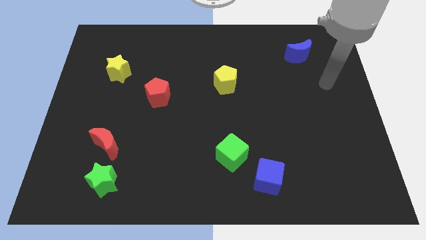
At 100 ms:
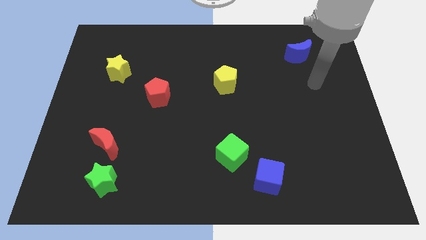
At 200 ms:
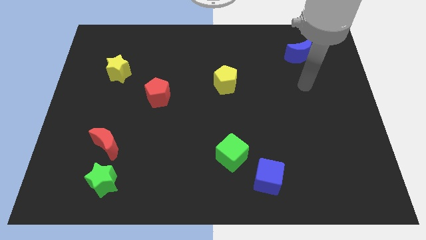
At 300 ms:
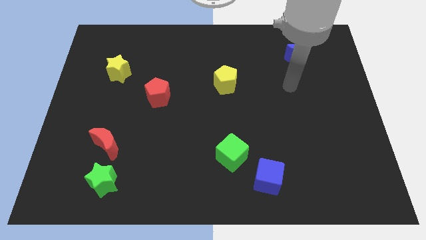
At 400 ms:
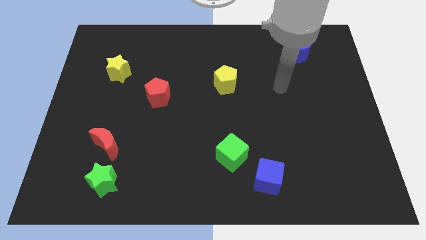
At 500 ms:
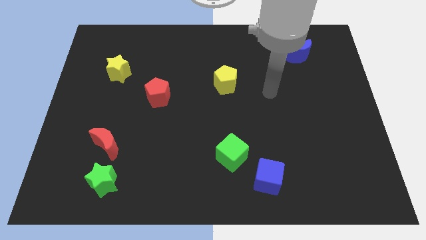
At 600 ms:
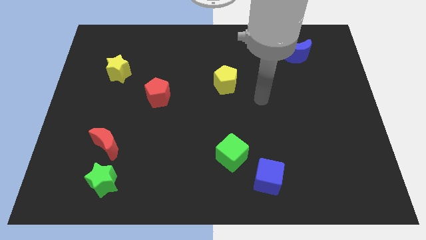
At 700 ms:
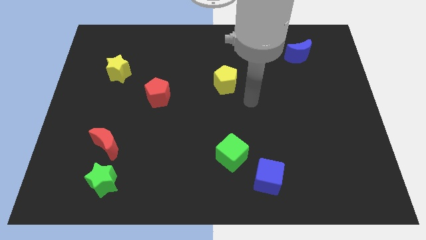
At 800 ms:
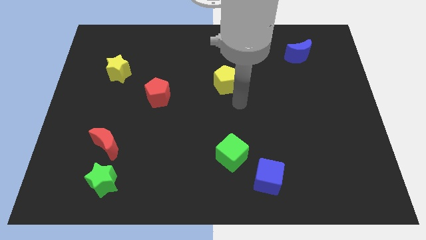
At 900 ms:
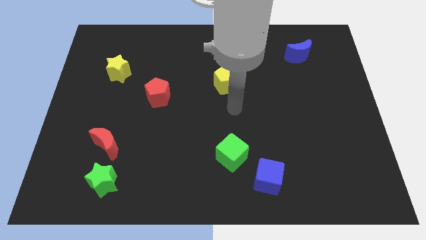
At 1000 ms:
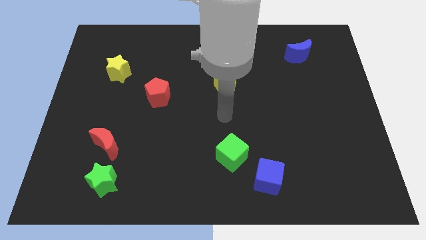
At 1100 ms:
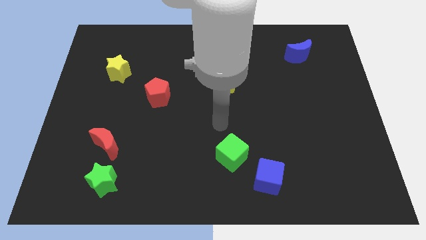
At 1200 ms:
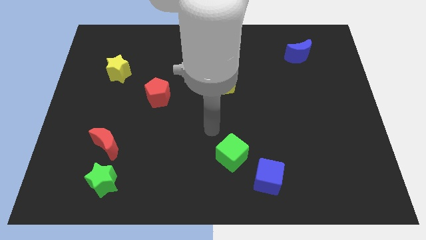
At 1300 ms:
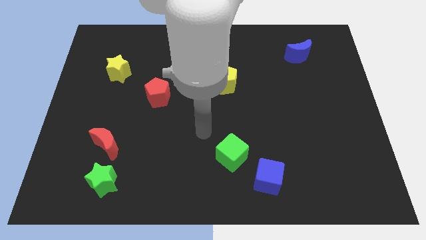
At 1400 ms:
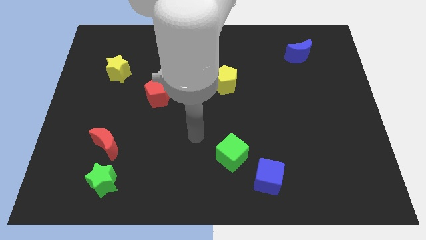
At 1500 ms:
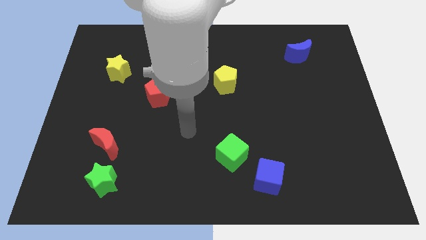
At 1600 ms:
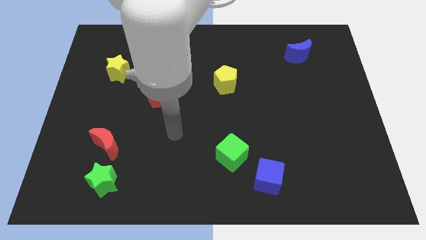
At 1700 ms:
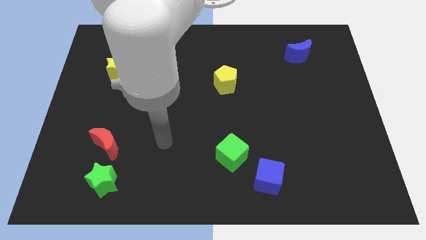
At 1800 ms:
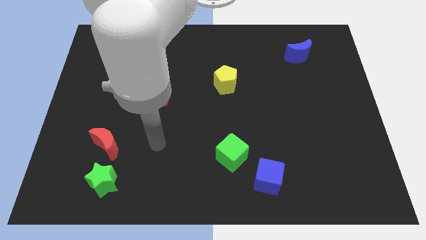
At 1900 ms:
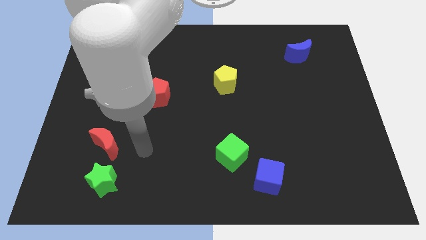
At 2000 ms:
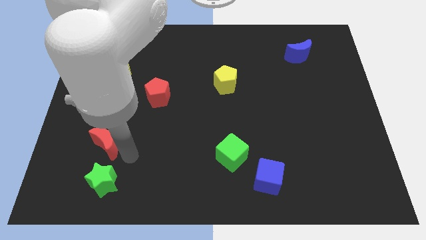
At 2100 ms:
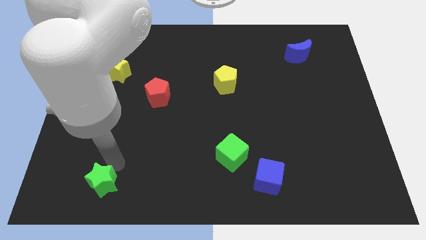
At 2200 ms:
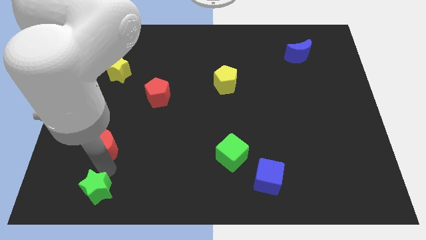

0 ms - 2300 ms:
pull the red moon apart from the green star

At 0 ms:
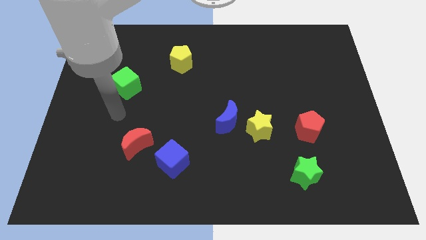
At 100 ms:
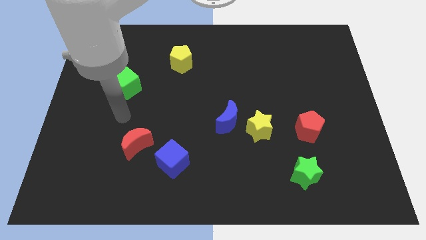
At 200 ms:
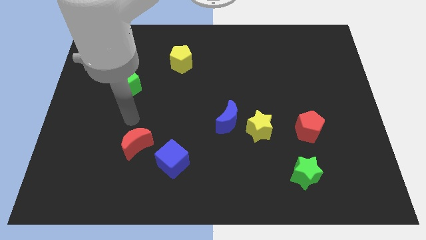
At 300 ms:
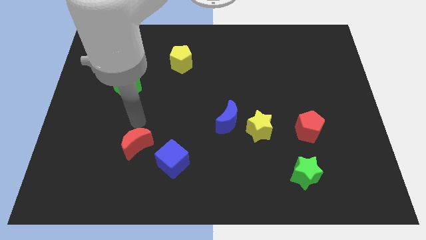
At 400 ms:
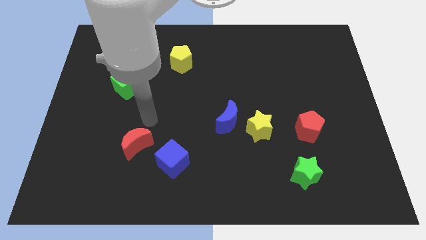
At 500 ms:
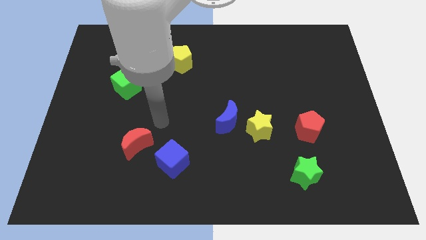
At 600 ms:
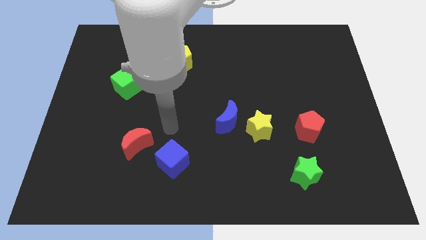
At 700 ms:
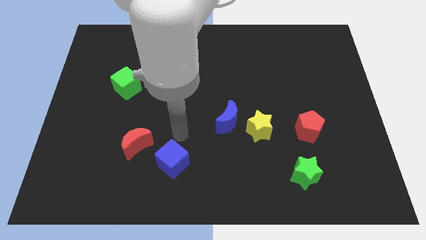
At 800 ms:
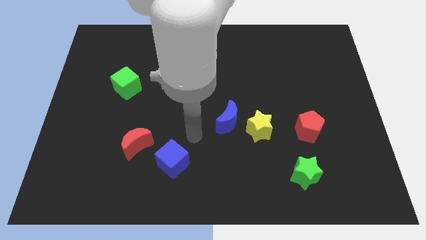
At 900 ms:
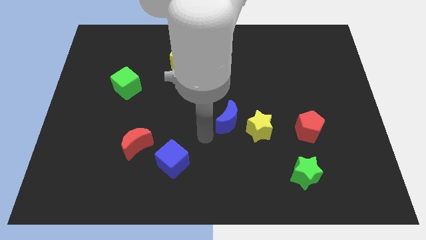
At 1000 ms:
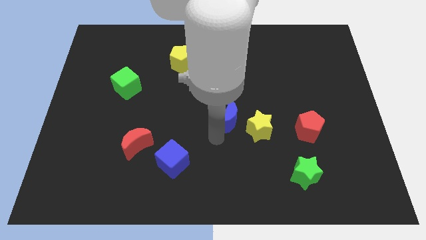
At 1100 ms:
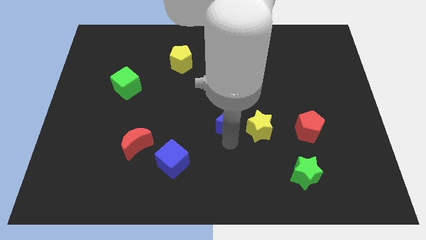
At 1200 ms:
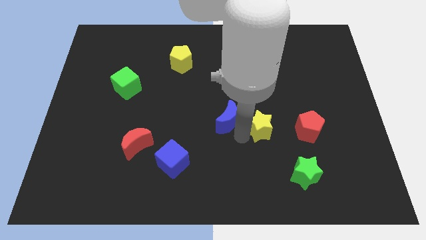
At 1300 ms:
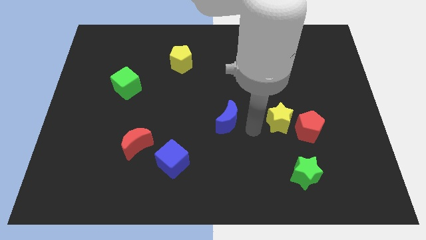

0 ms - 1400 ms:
pull the blue moon apart from the yellow star

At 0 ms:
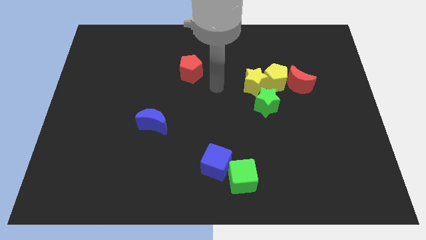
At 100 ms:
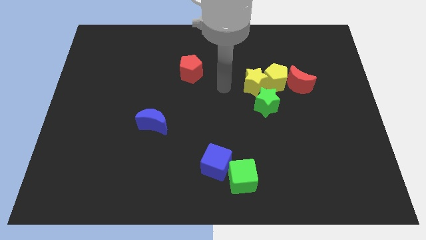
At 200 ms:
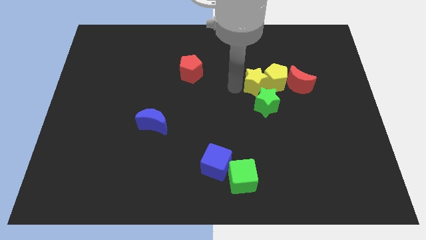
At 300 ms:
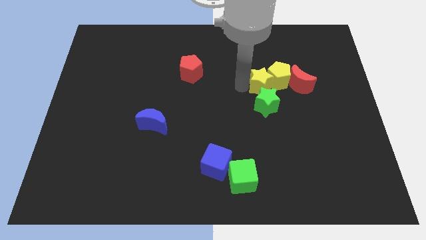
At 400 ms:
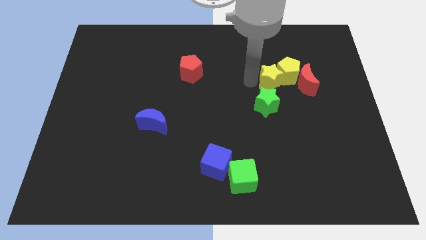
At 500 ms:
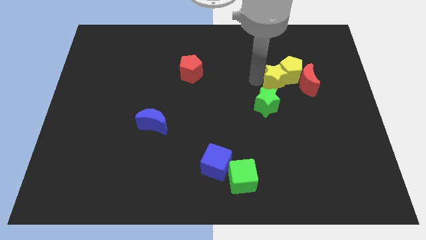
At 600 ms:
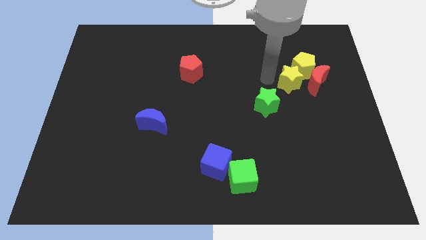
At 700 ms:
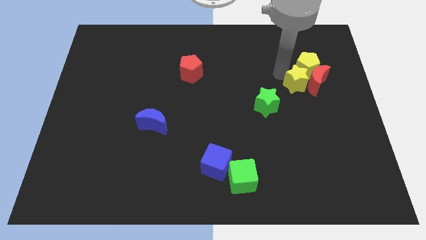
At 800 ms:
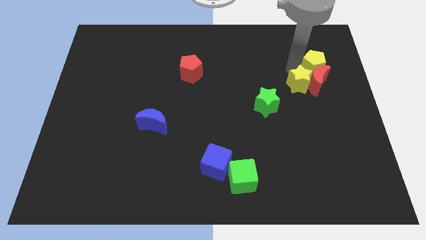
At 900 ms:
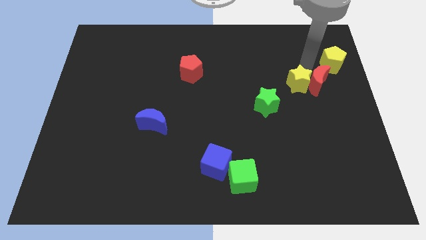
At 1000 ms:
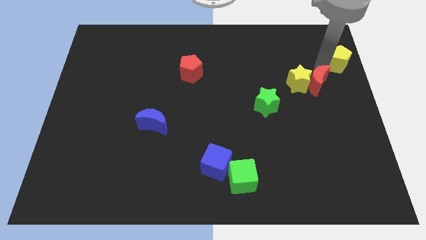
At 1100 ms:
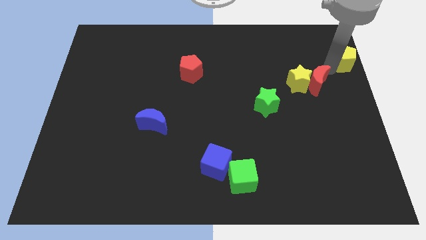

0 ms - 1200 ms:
separate the red moon from the yellow pentagon

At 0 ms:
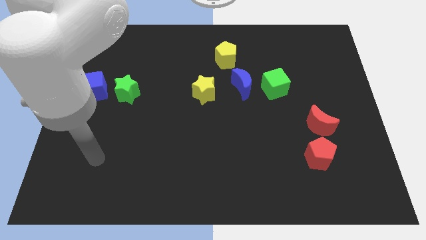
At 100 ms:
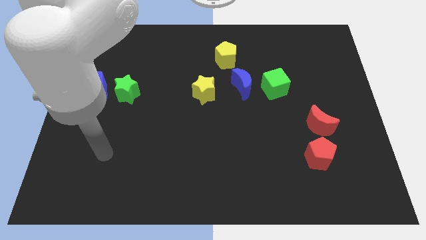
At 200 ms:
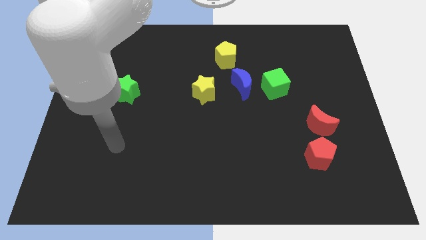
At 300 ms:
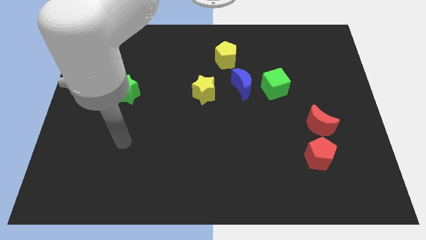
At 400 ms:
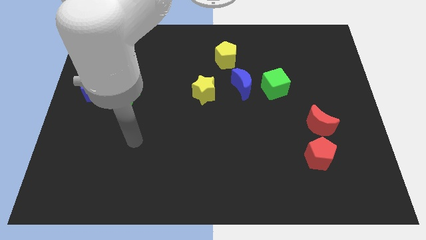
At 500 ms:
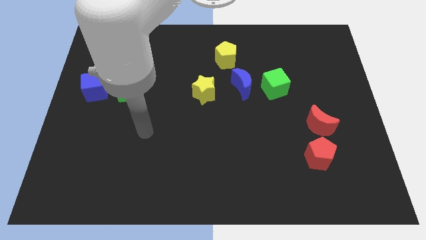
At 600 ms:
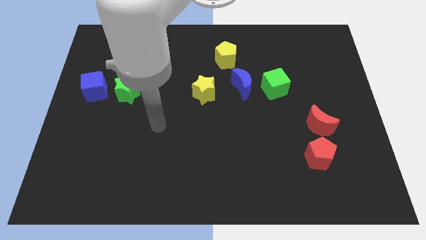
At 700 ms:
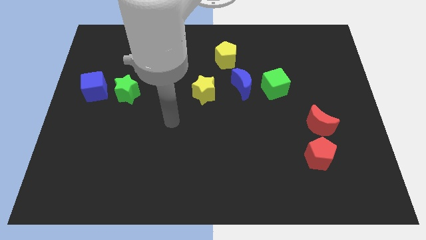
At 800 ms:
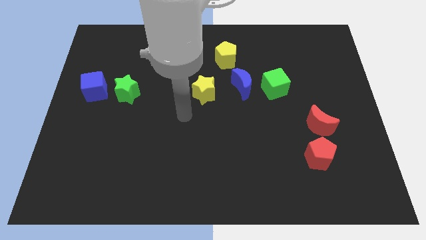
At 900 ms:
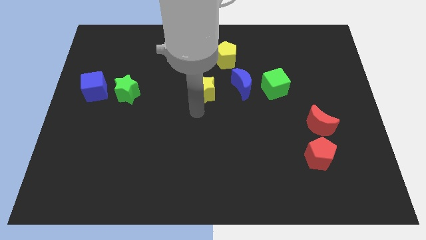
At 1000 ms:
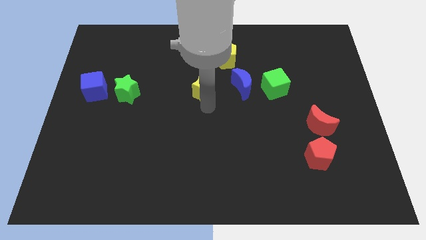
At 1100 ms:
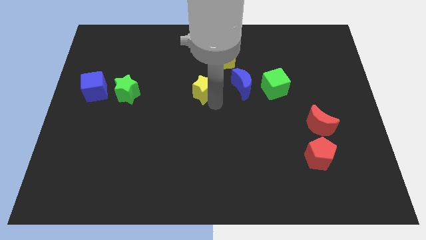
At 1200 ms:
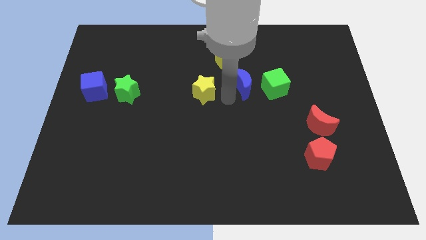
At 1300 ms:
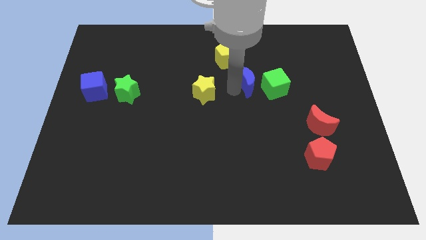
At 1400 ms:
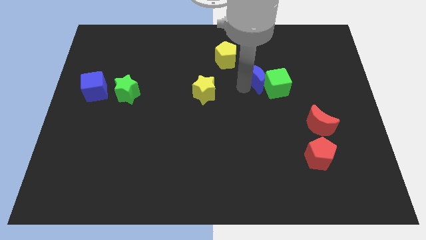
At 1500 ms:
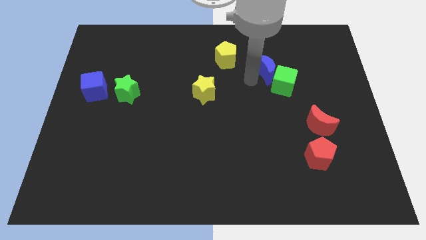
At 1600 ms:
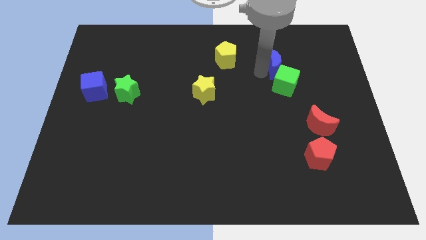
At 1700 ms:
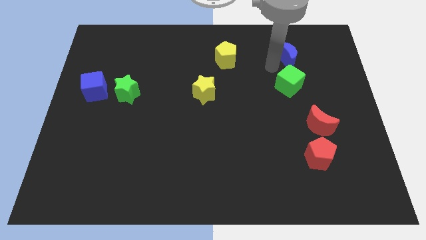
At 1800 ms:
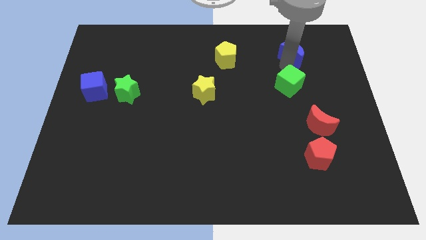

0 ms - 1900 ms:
move the green cube away from the blue moon

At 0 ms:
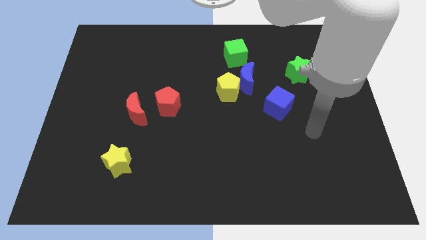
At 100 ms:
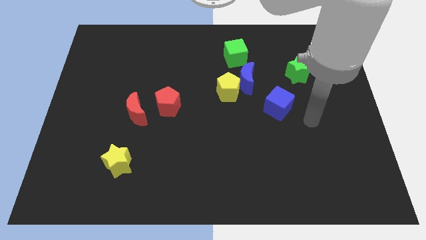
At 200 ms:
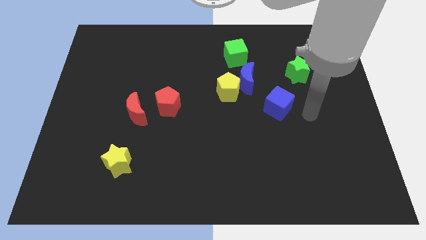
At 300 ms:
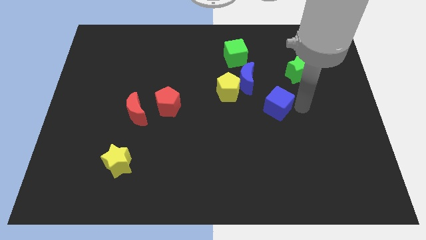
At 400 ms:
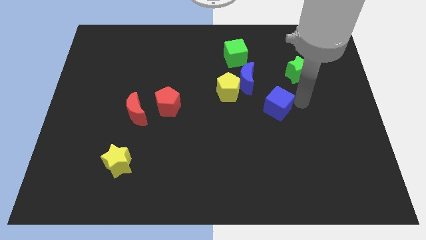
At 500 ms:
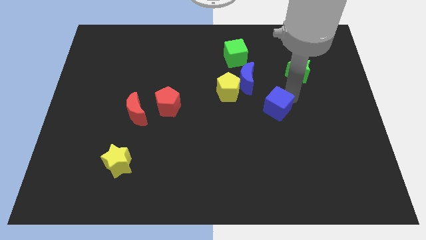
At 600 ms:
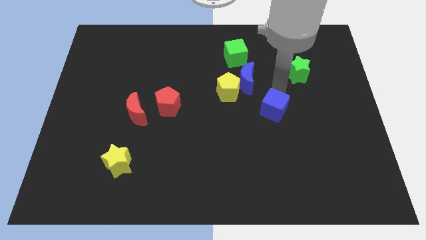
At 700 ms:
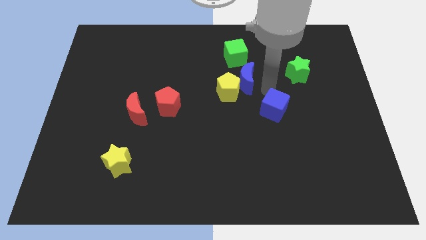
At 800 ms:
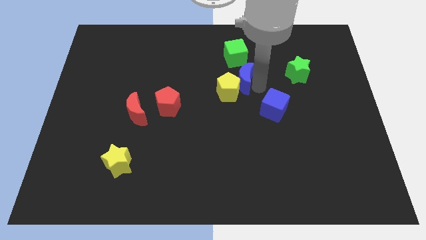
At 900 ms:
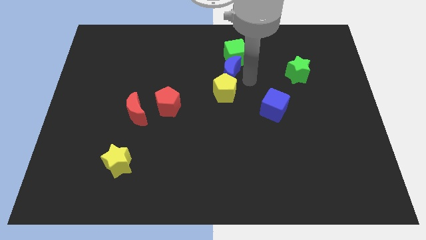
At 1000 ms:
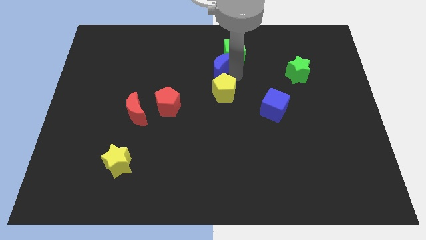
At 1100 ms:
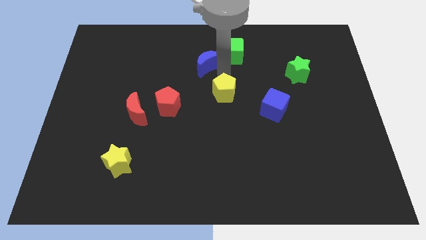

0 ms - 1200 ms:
pull the yellow pentagon apart from the blue moon

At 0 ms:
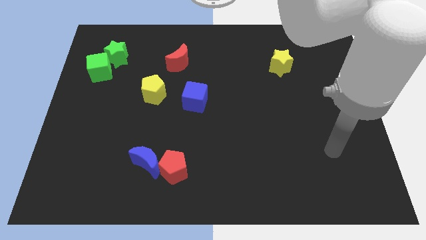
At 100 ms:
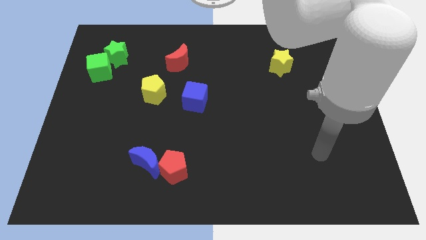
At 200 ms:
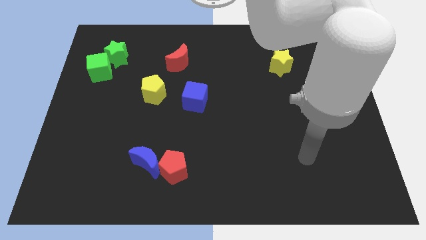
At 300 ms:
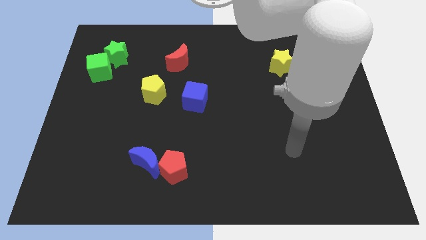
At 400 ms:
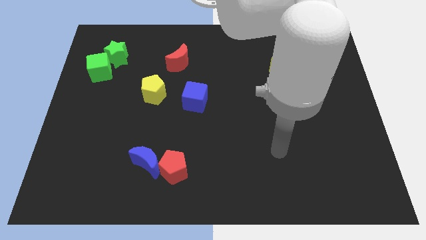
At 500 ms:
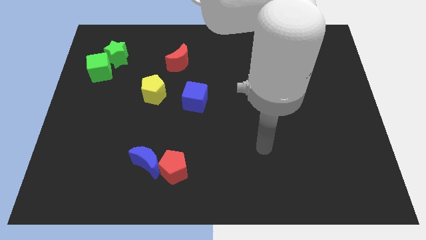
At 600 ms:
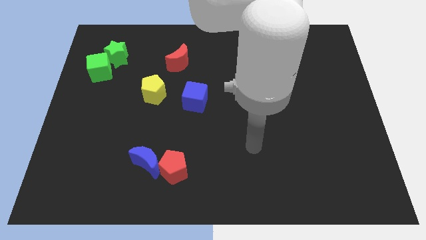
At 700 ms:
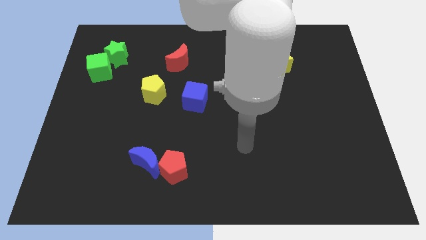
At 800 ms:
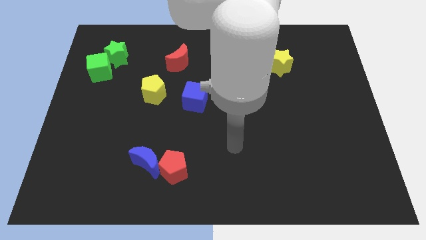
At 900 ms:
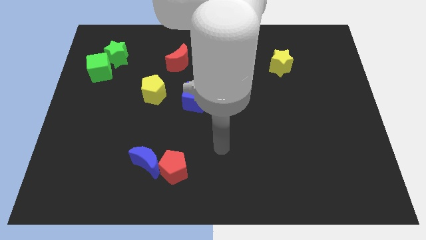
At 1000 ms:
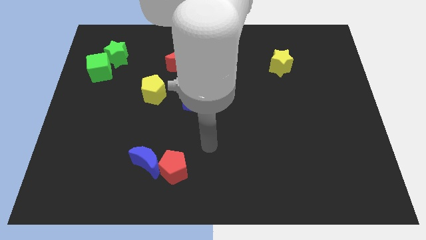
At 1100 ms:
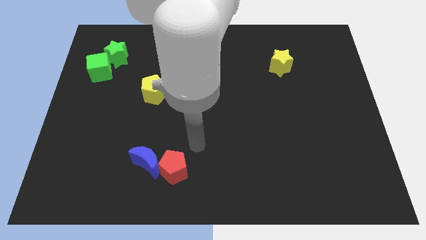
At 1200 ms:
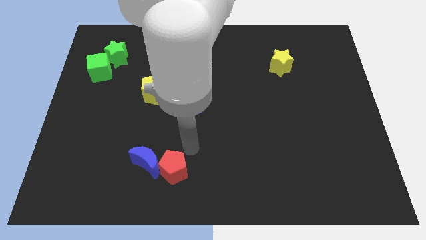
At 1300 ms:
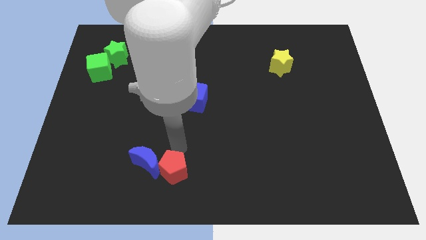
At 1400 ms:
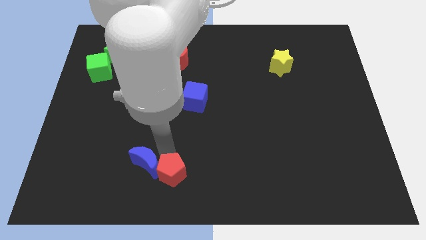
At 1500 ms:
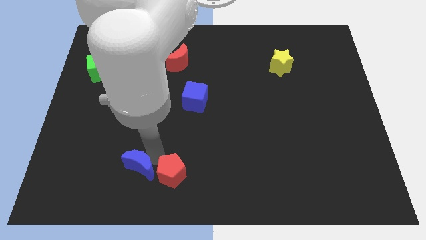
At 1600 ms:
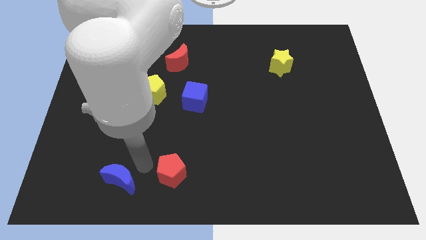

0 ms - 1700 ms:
move the red pentagon away from the blue moon
